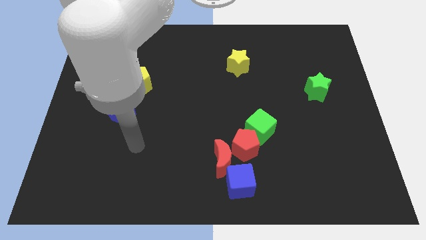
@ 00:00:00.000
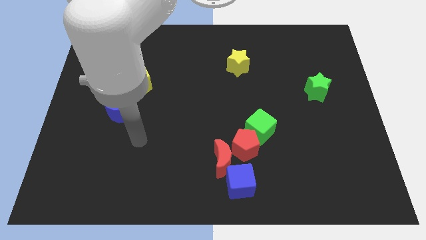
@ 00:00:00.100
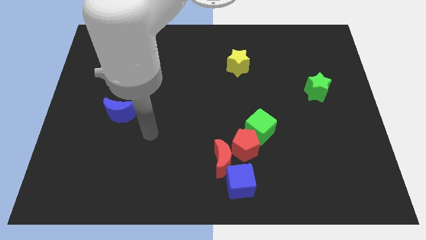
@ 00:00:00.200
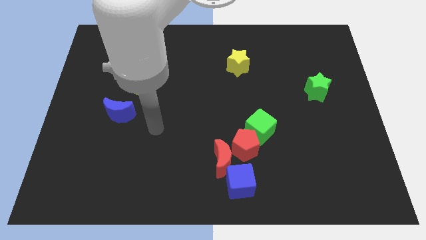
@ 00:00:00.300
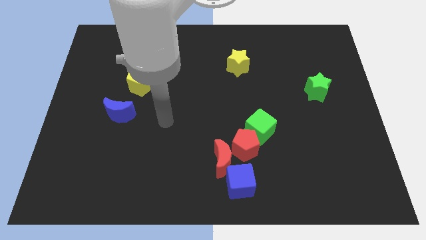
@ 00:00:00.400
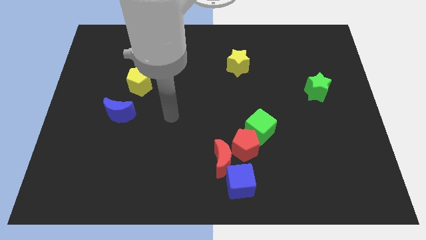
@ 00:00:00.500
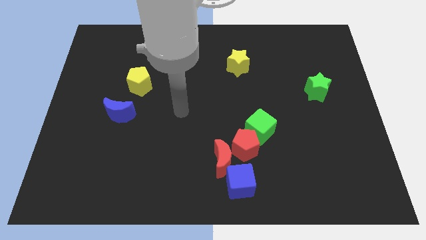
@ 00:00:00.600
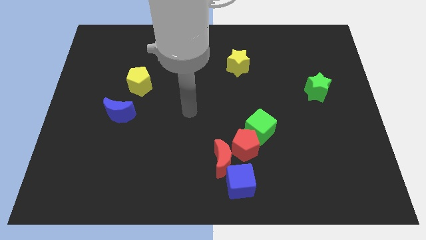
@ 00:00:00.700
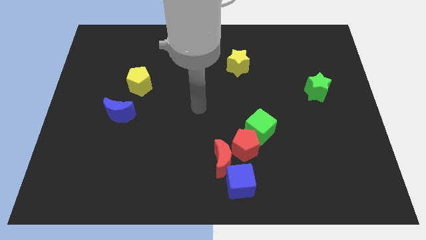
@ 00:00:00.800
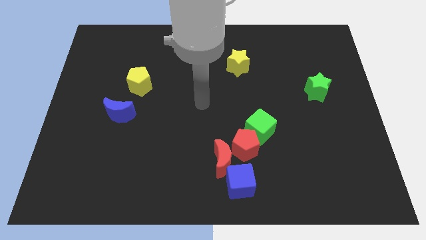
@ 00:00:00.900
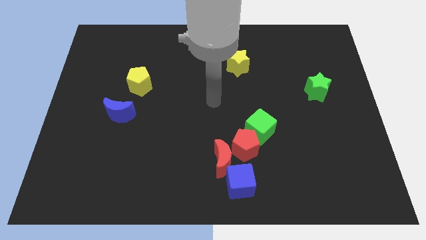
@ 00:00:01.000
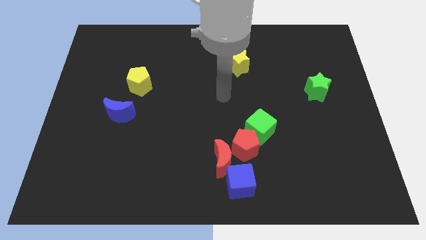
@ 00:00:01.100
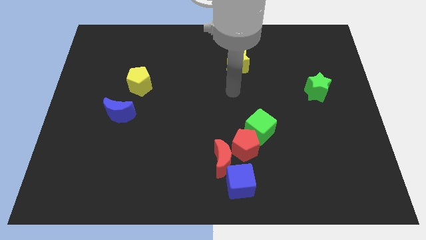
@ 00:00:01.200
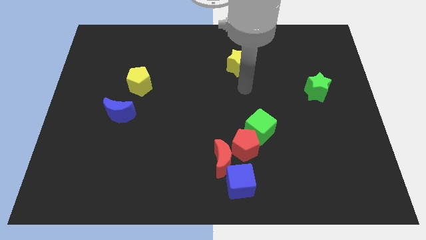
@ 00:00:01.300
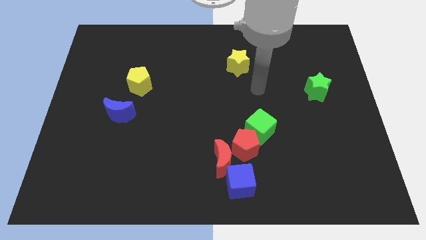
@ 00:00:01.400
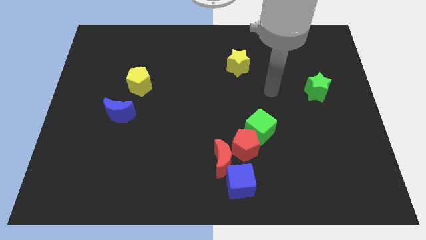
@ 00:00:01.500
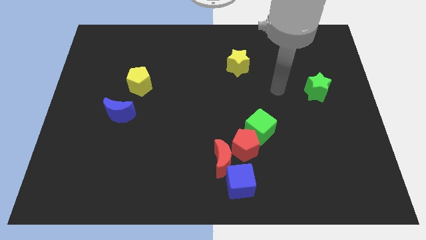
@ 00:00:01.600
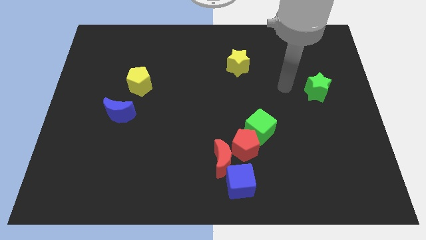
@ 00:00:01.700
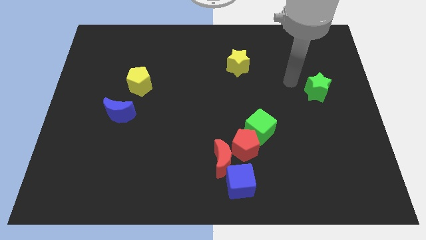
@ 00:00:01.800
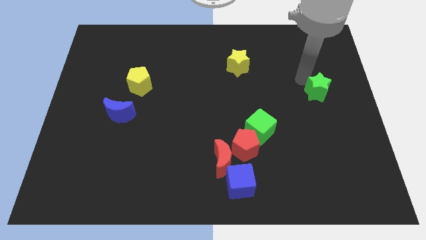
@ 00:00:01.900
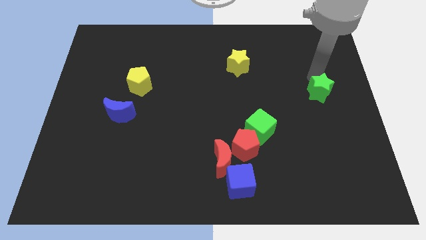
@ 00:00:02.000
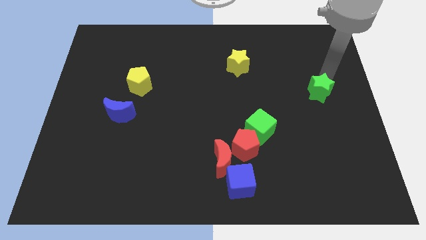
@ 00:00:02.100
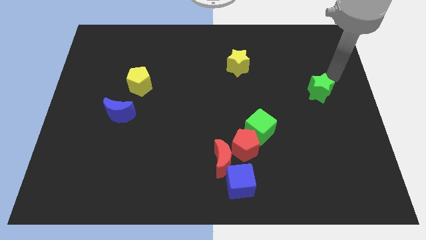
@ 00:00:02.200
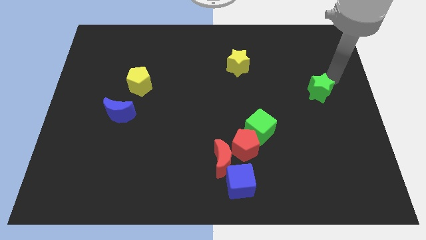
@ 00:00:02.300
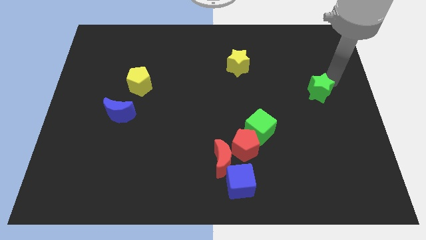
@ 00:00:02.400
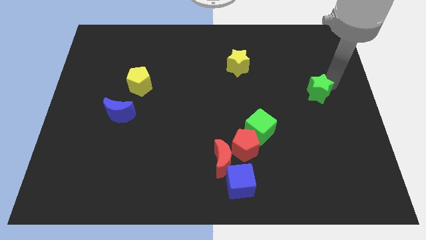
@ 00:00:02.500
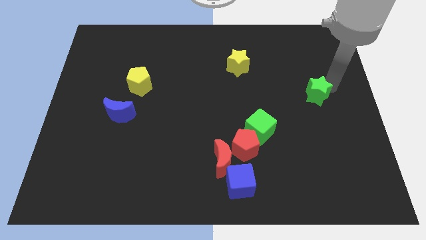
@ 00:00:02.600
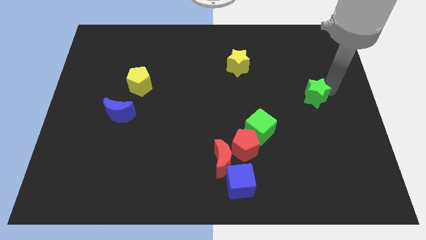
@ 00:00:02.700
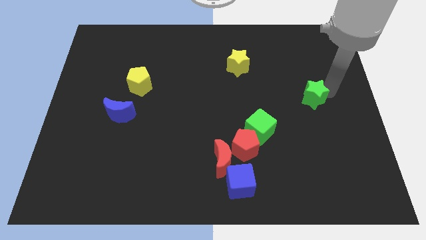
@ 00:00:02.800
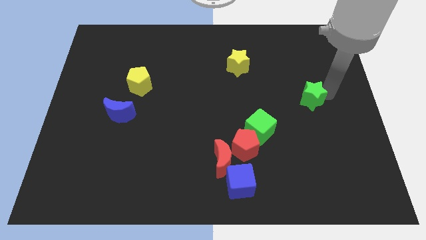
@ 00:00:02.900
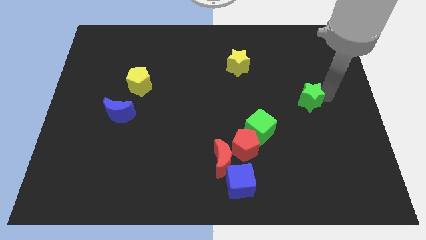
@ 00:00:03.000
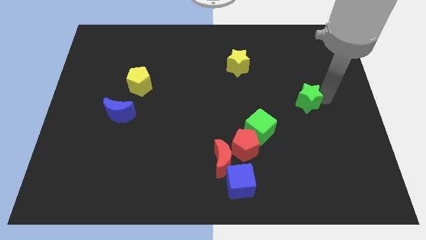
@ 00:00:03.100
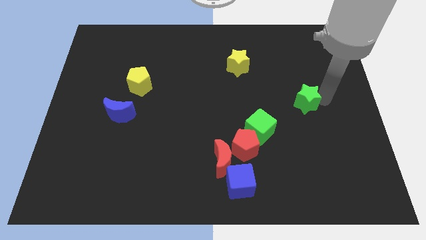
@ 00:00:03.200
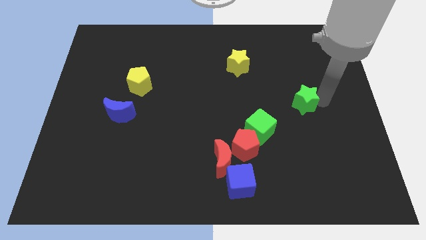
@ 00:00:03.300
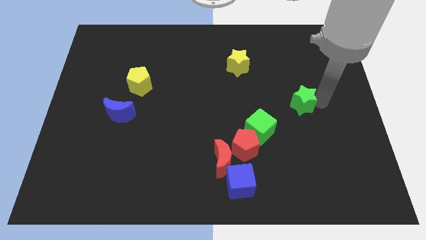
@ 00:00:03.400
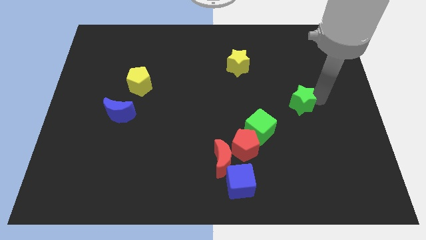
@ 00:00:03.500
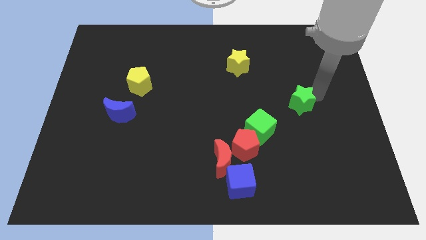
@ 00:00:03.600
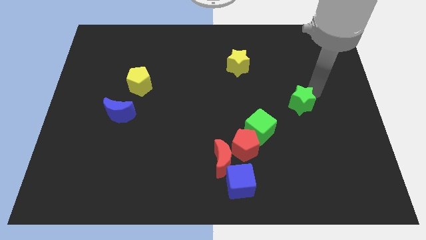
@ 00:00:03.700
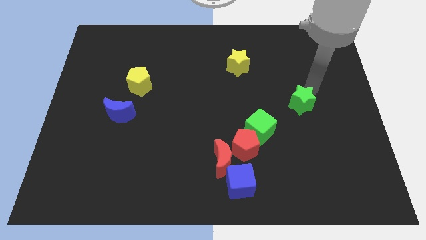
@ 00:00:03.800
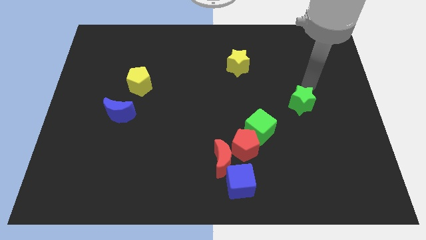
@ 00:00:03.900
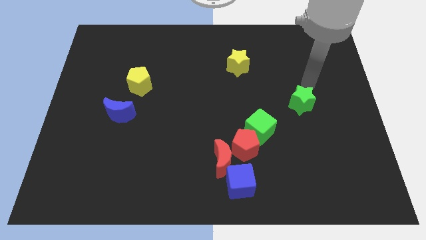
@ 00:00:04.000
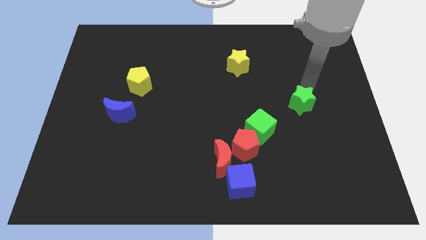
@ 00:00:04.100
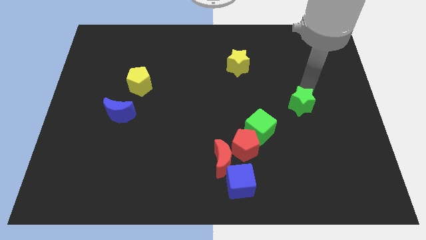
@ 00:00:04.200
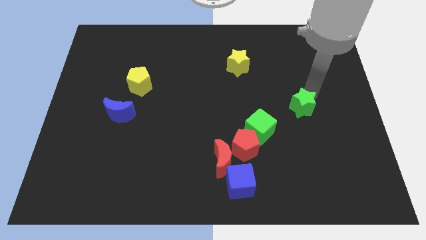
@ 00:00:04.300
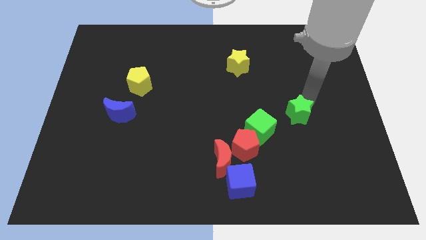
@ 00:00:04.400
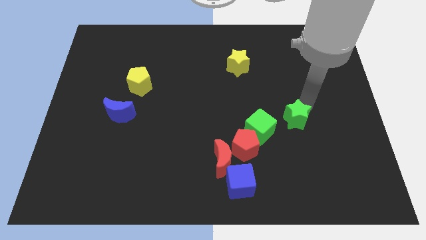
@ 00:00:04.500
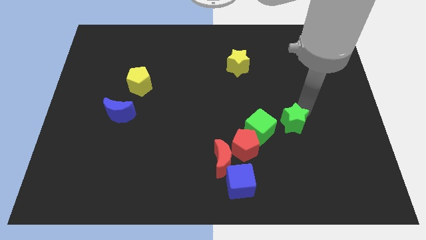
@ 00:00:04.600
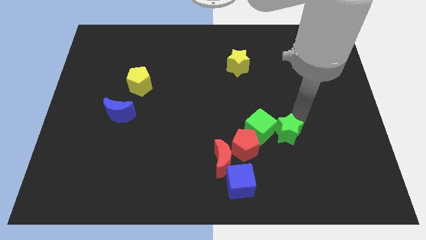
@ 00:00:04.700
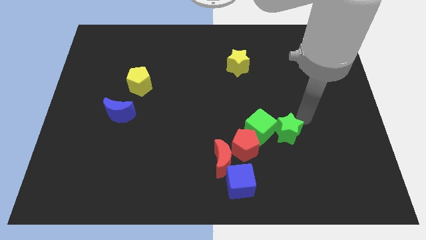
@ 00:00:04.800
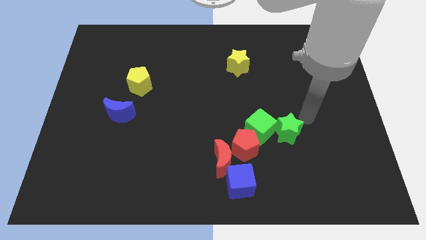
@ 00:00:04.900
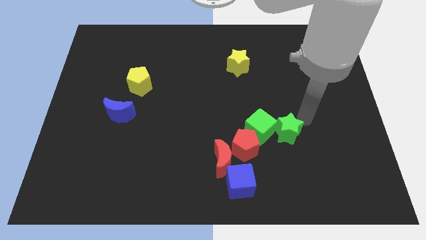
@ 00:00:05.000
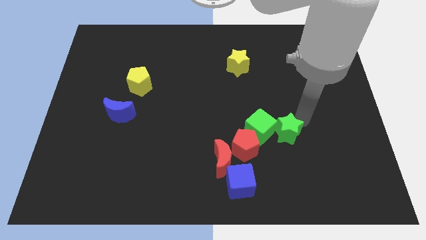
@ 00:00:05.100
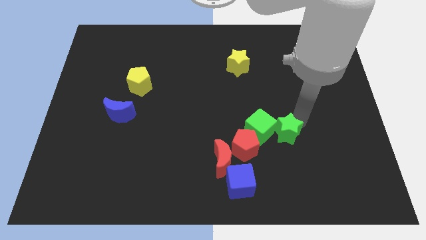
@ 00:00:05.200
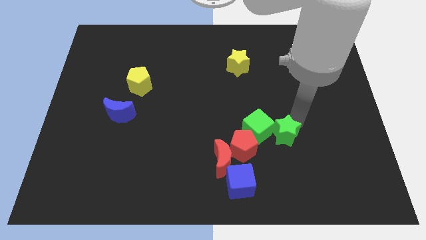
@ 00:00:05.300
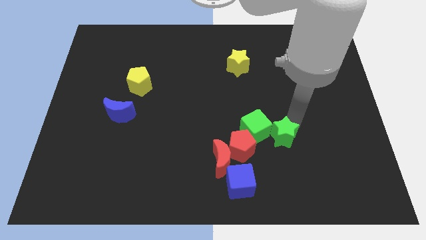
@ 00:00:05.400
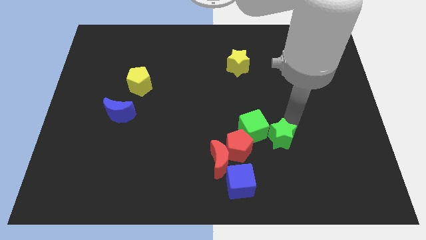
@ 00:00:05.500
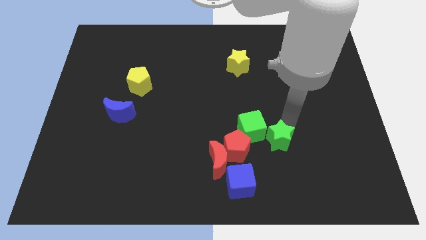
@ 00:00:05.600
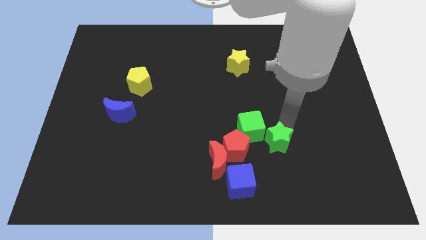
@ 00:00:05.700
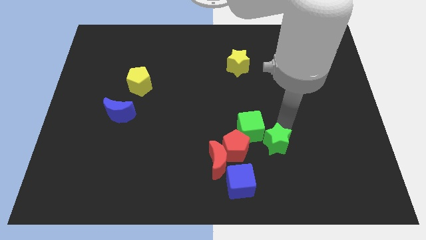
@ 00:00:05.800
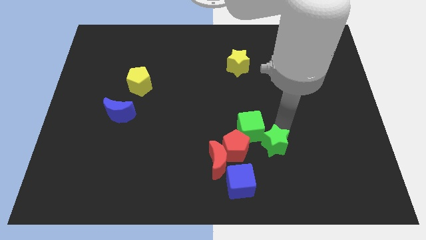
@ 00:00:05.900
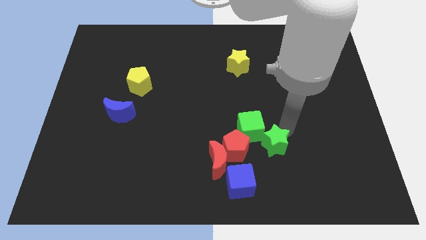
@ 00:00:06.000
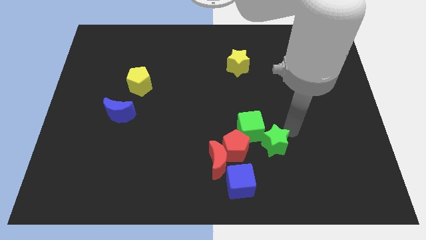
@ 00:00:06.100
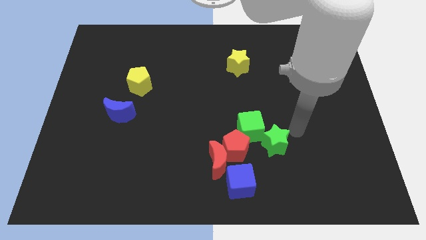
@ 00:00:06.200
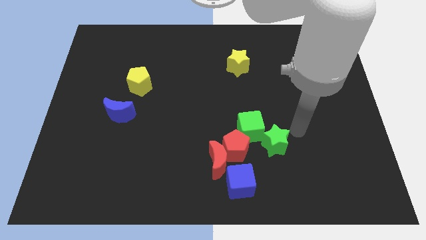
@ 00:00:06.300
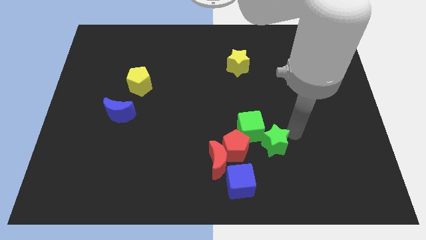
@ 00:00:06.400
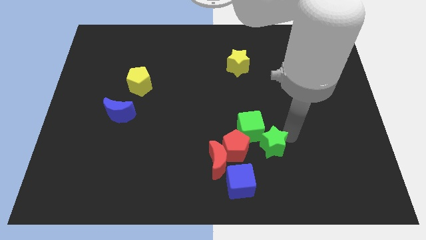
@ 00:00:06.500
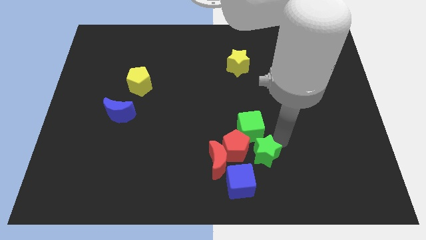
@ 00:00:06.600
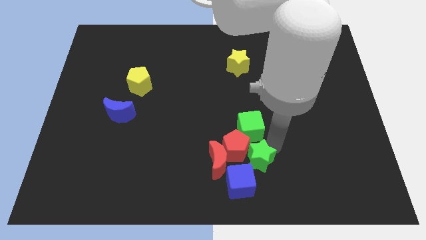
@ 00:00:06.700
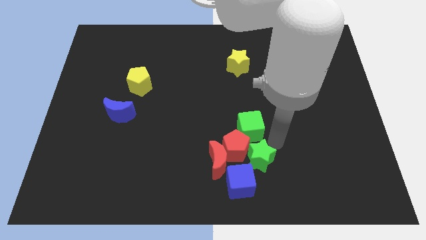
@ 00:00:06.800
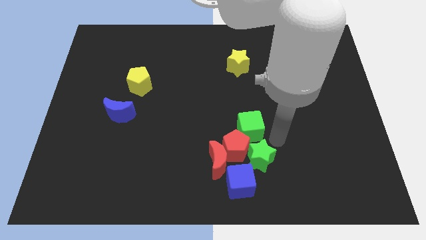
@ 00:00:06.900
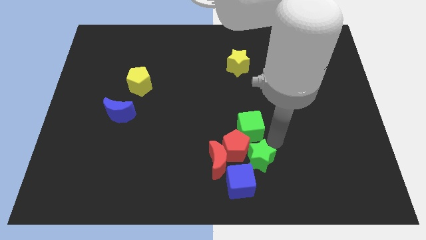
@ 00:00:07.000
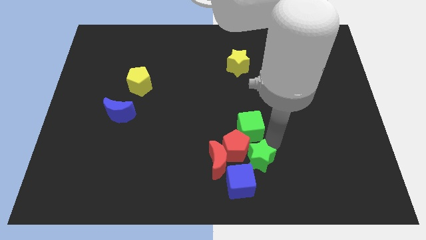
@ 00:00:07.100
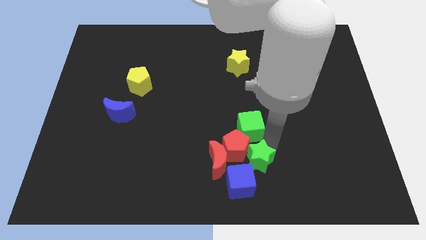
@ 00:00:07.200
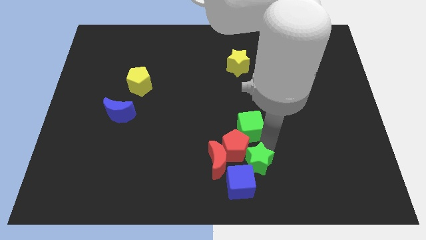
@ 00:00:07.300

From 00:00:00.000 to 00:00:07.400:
slide the green star close to the blue cube

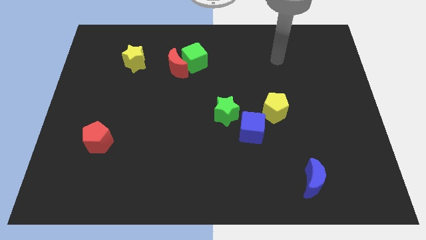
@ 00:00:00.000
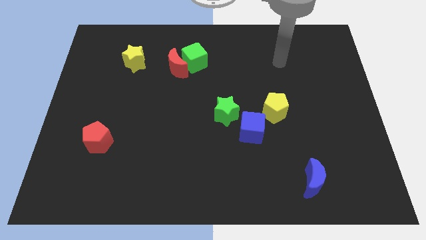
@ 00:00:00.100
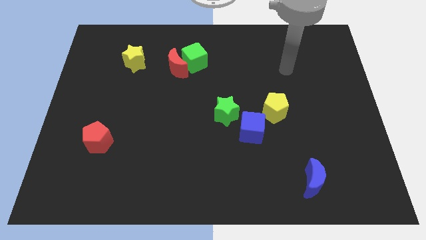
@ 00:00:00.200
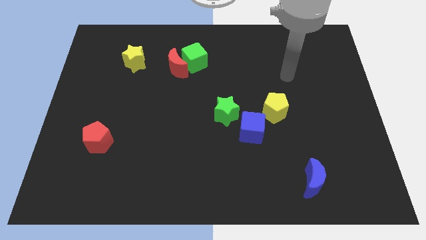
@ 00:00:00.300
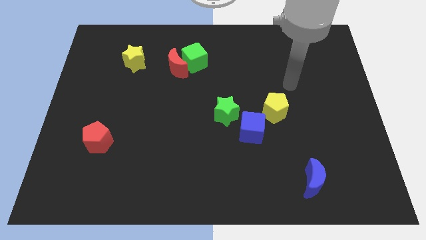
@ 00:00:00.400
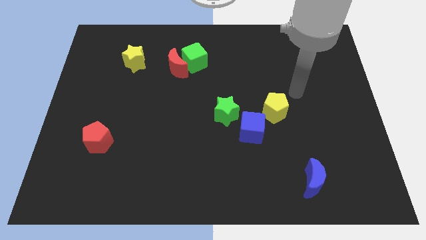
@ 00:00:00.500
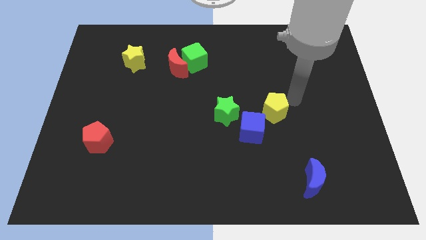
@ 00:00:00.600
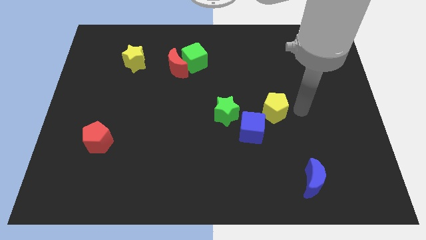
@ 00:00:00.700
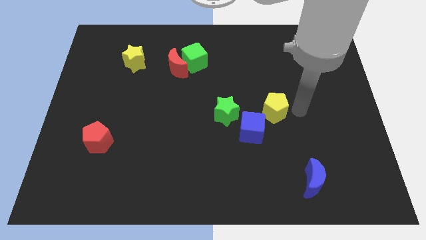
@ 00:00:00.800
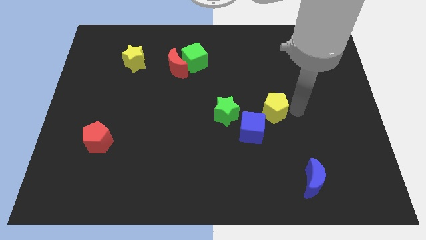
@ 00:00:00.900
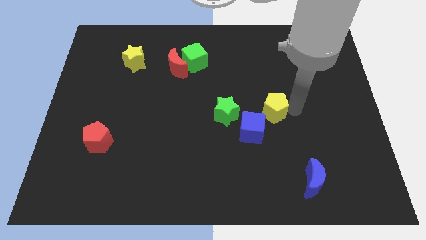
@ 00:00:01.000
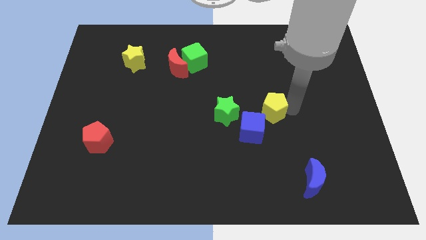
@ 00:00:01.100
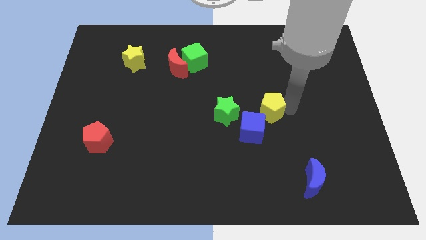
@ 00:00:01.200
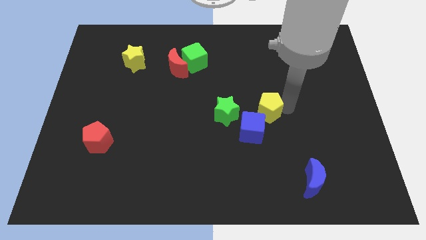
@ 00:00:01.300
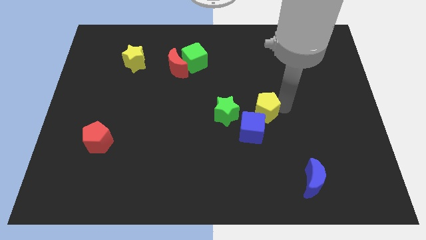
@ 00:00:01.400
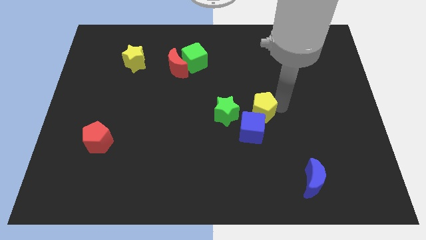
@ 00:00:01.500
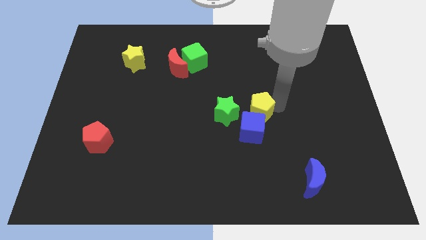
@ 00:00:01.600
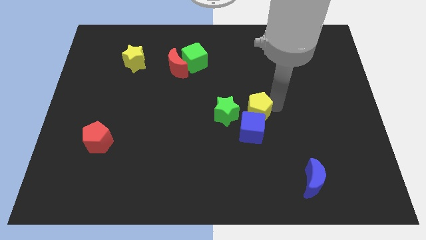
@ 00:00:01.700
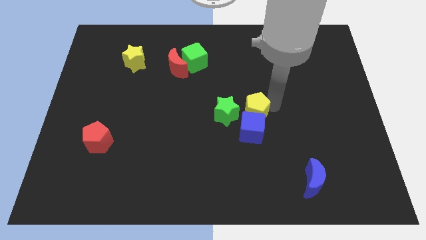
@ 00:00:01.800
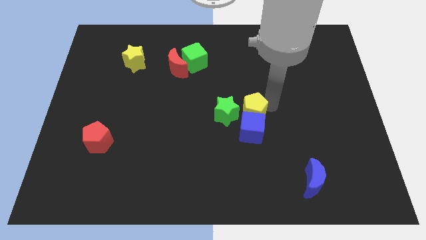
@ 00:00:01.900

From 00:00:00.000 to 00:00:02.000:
slide the yellow pentagon next to the green star
